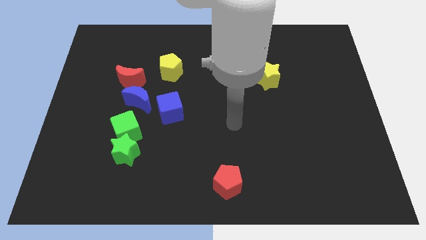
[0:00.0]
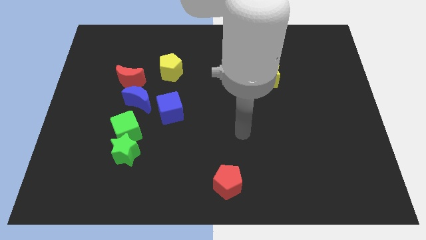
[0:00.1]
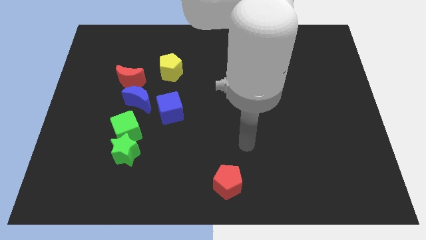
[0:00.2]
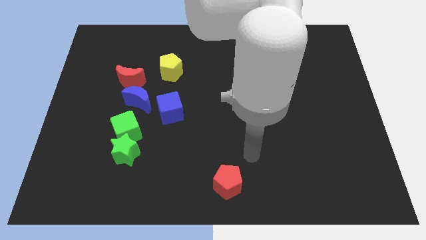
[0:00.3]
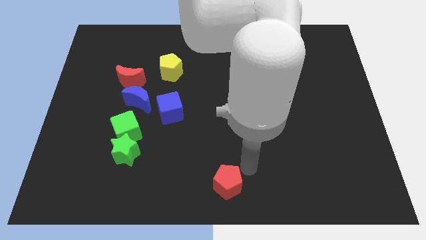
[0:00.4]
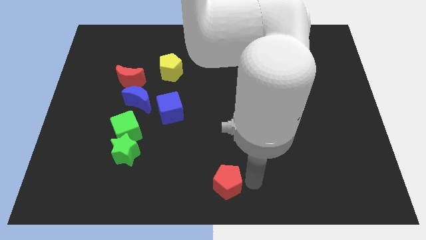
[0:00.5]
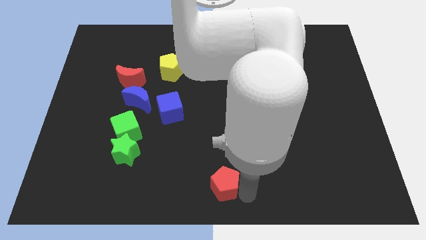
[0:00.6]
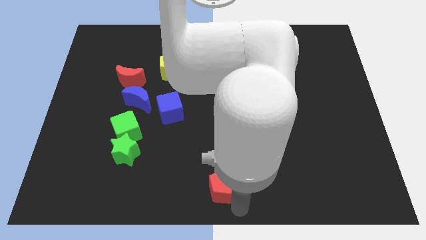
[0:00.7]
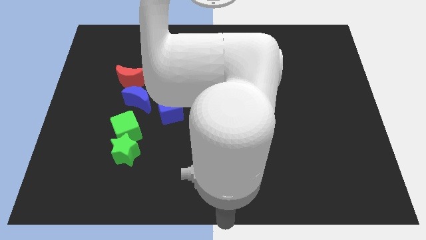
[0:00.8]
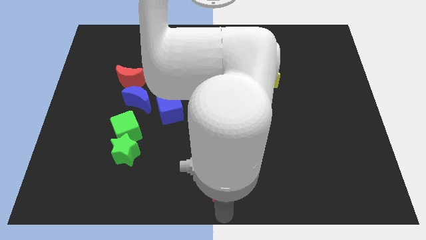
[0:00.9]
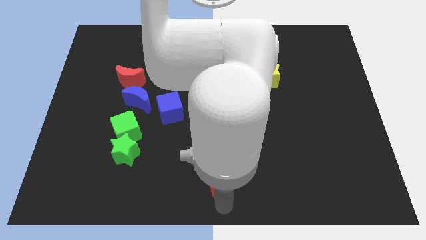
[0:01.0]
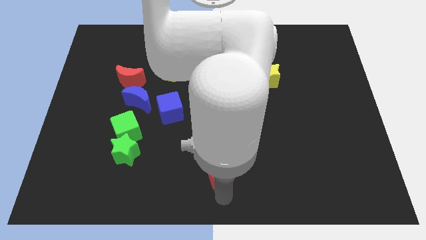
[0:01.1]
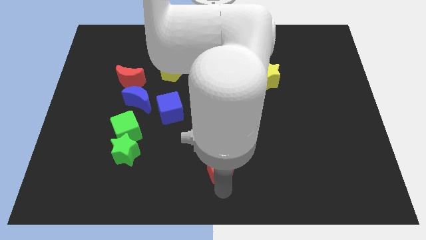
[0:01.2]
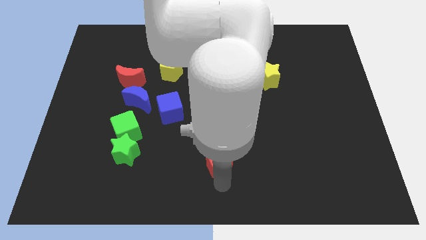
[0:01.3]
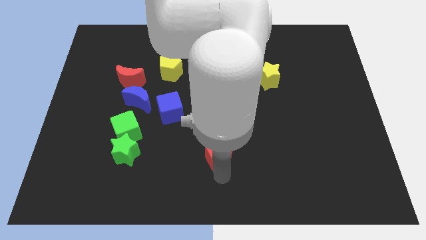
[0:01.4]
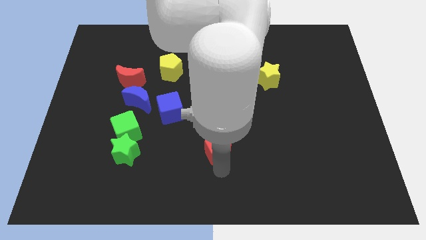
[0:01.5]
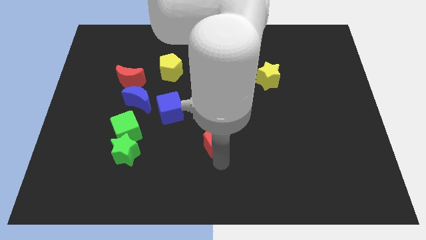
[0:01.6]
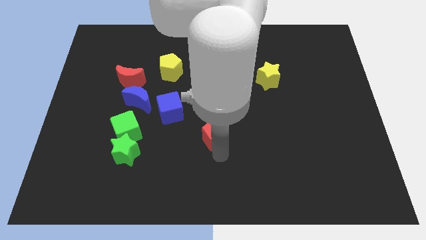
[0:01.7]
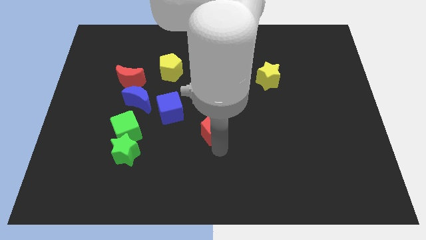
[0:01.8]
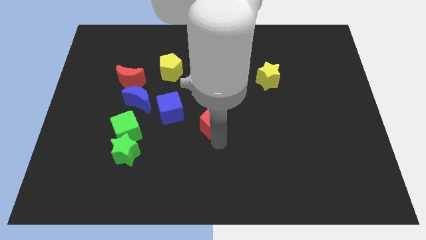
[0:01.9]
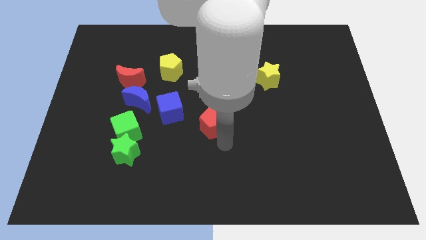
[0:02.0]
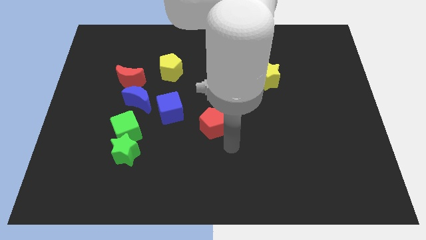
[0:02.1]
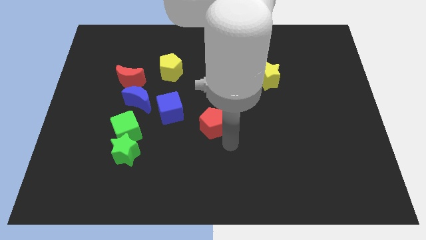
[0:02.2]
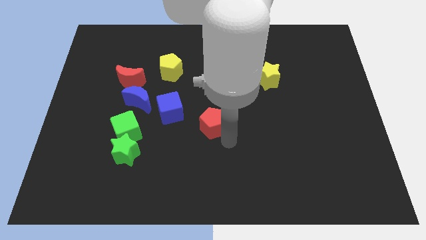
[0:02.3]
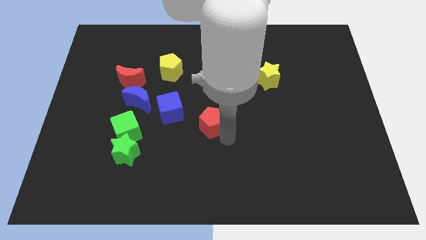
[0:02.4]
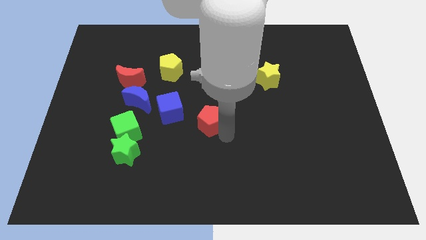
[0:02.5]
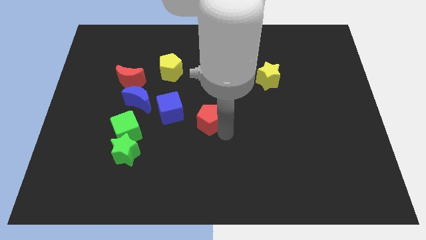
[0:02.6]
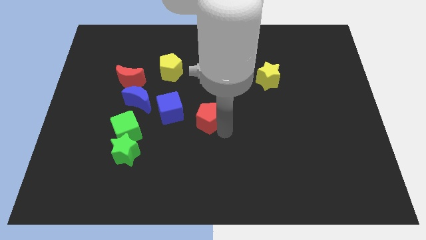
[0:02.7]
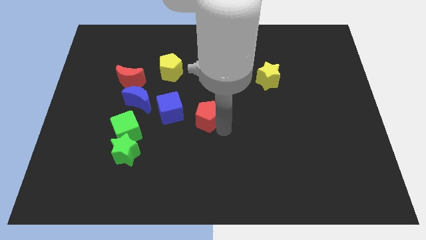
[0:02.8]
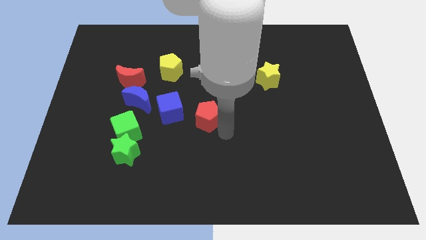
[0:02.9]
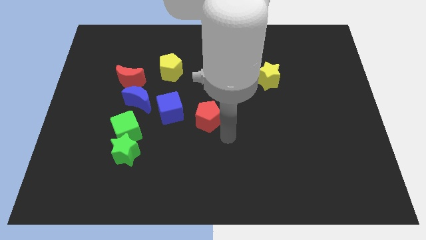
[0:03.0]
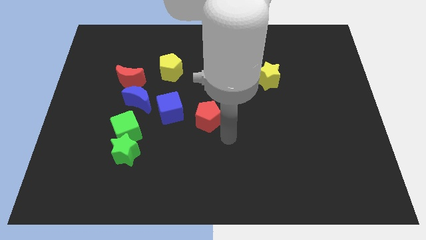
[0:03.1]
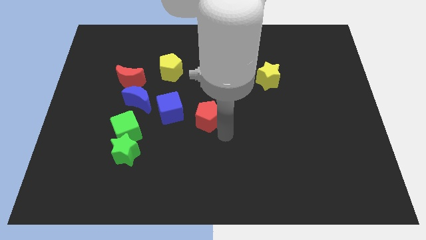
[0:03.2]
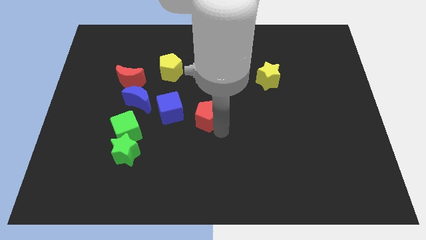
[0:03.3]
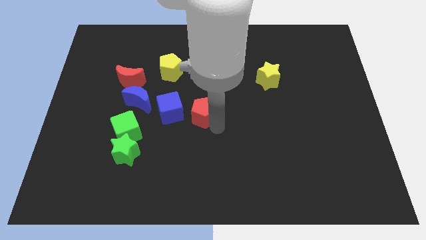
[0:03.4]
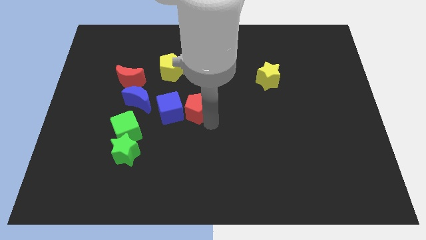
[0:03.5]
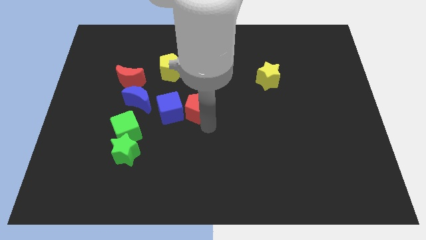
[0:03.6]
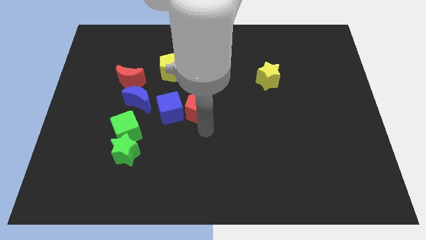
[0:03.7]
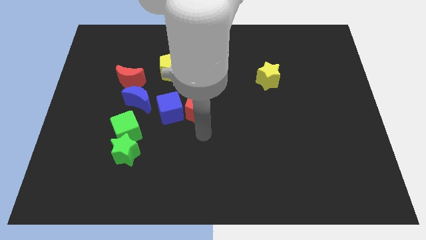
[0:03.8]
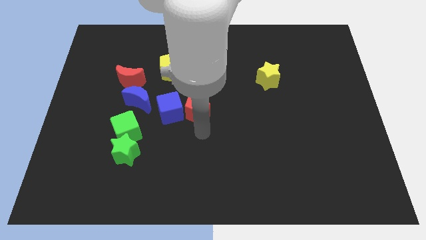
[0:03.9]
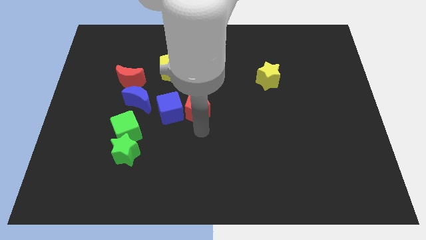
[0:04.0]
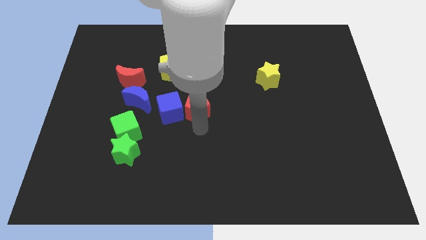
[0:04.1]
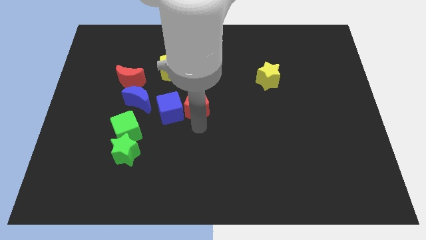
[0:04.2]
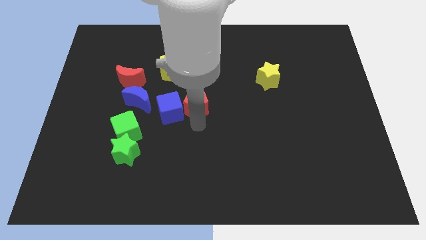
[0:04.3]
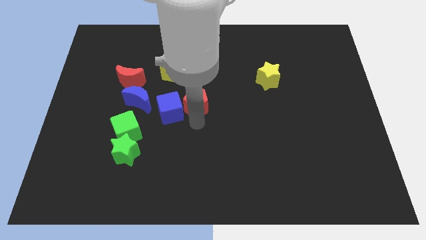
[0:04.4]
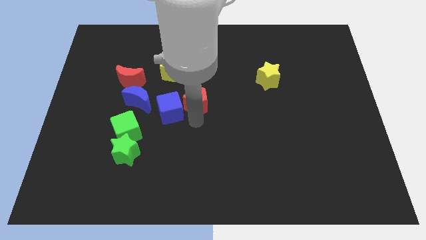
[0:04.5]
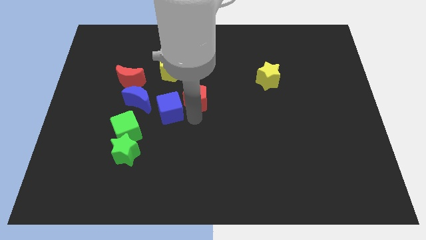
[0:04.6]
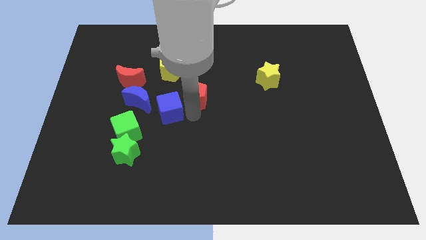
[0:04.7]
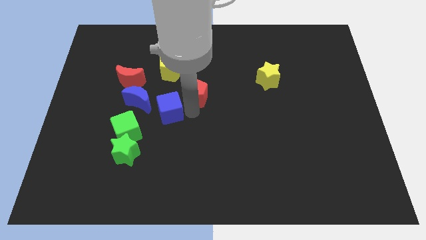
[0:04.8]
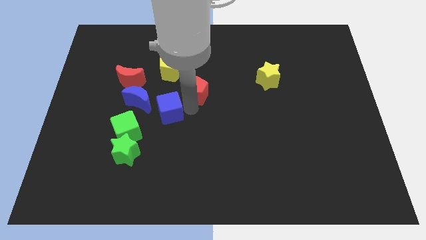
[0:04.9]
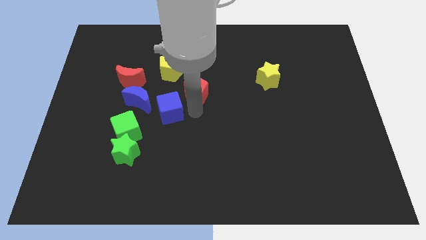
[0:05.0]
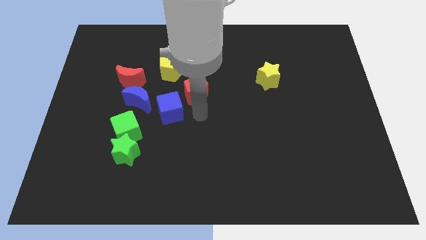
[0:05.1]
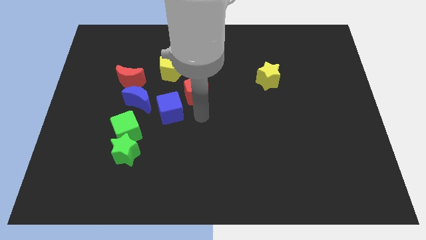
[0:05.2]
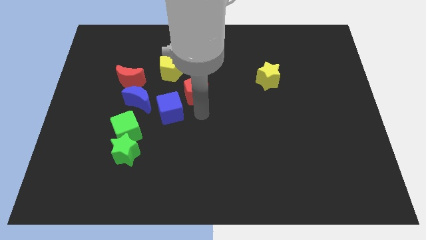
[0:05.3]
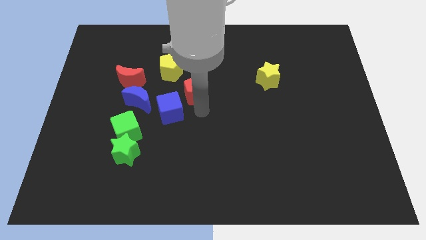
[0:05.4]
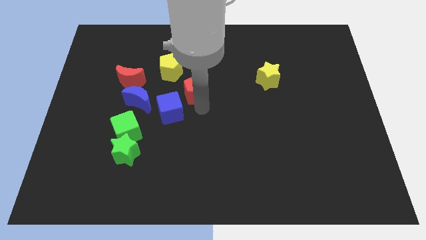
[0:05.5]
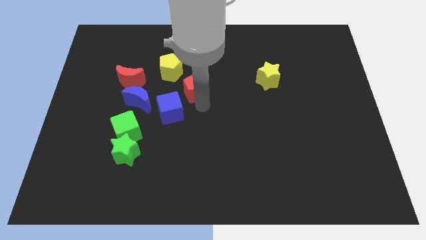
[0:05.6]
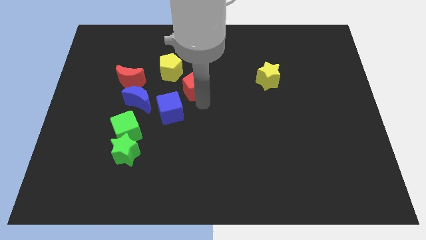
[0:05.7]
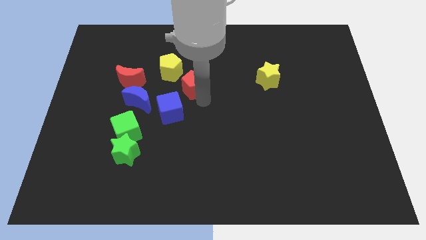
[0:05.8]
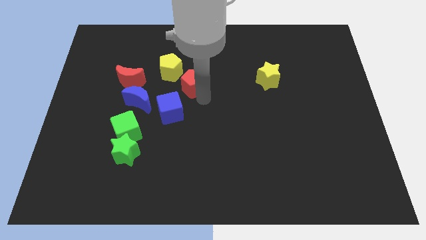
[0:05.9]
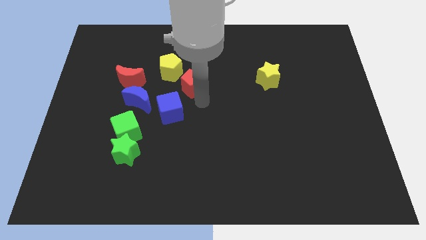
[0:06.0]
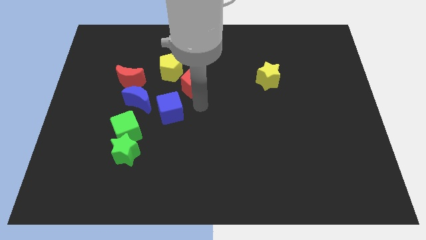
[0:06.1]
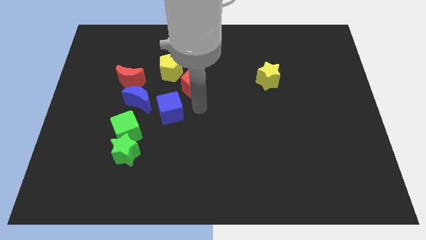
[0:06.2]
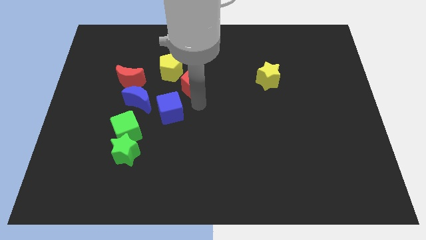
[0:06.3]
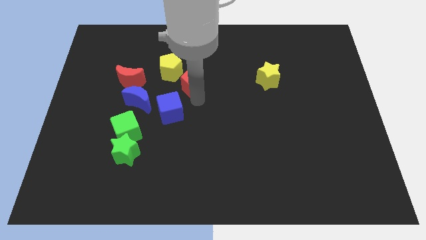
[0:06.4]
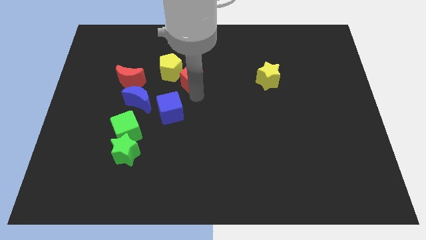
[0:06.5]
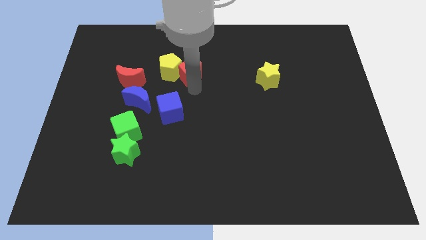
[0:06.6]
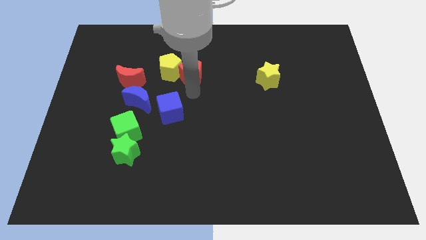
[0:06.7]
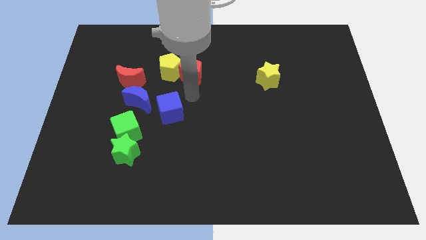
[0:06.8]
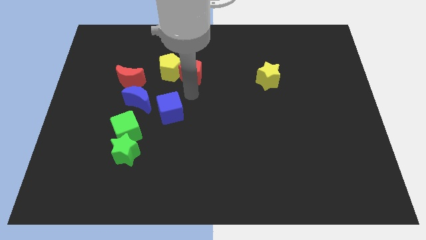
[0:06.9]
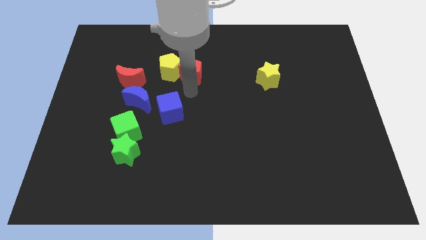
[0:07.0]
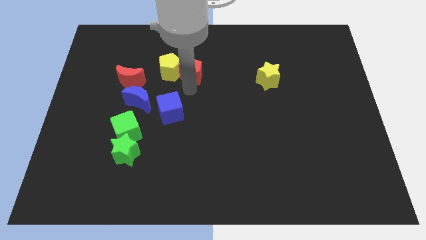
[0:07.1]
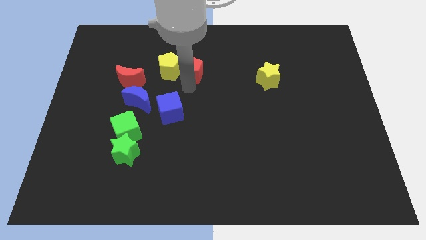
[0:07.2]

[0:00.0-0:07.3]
push the red pentagon to the top right of the yellow pentagon

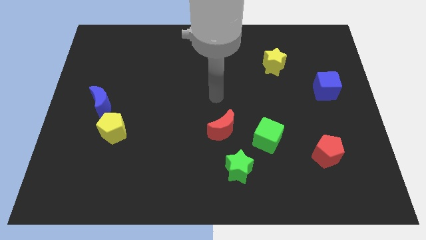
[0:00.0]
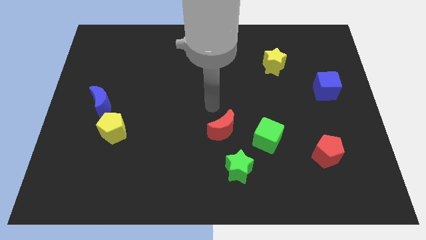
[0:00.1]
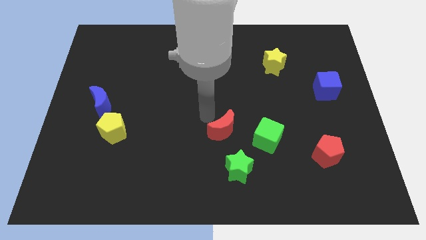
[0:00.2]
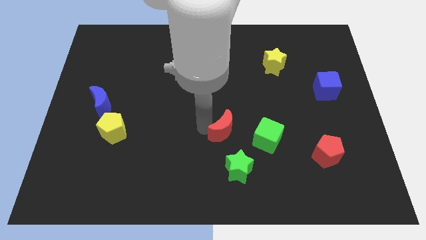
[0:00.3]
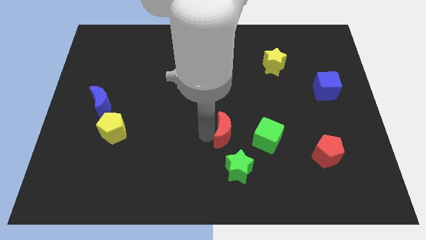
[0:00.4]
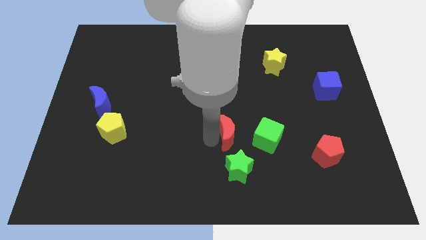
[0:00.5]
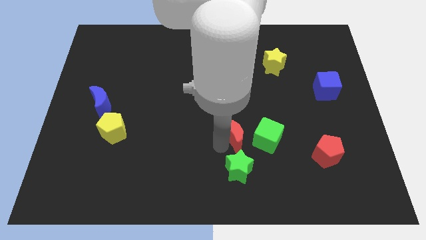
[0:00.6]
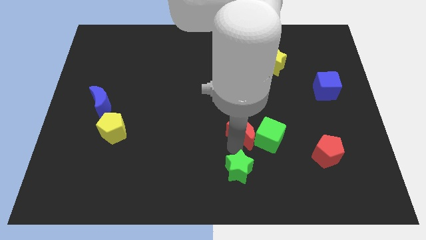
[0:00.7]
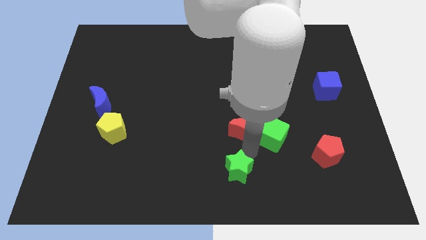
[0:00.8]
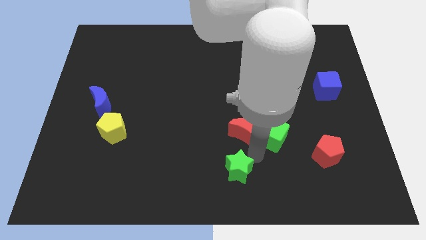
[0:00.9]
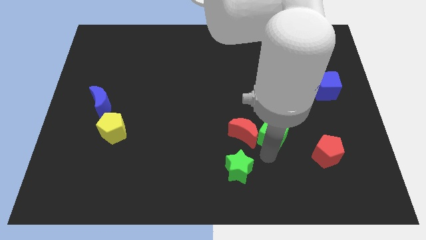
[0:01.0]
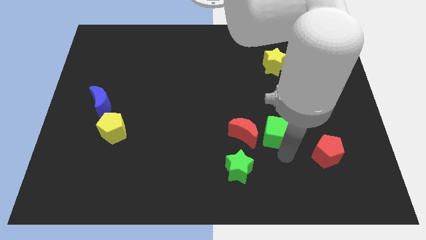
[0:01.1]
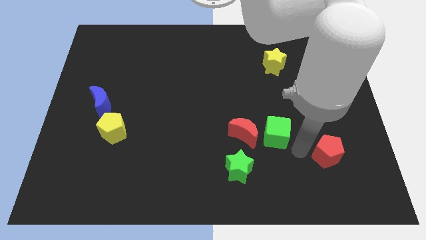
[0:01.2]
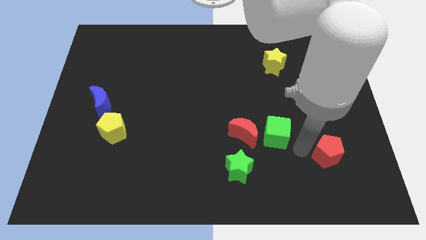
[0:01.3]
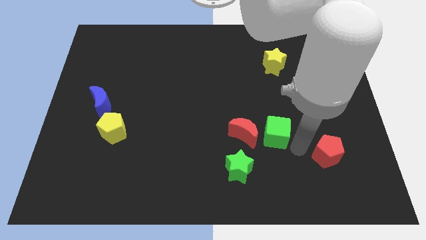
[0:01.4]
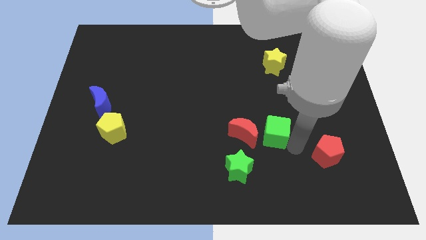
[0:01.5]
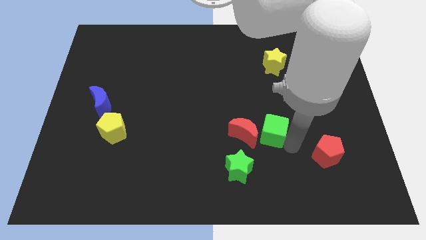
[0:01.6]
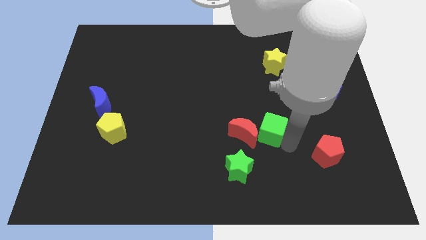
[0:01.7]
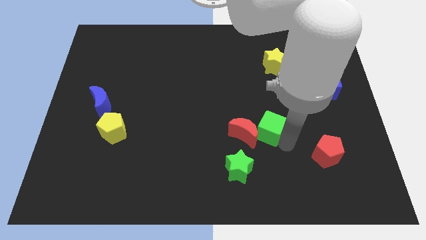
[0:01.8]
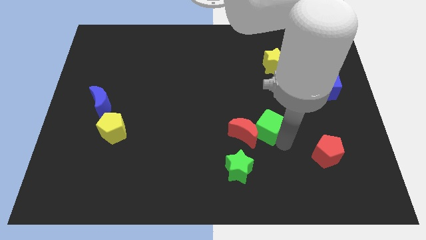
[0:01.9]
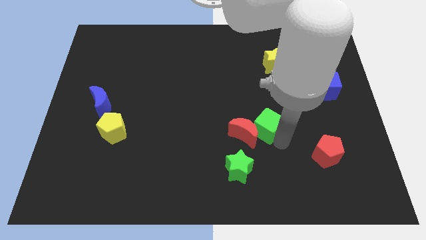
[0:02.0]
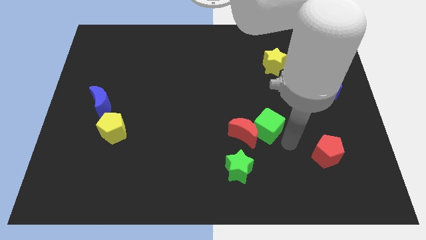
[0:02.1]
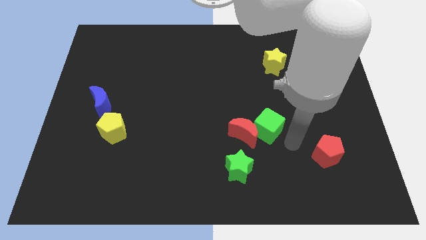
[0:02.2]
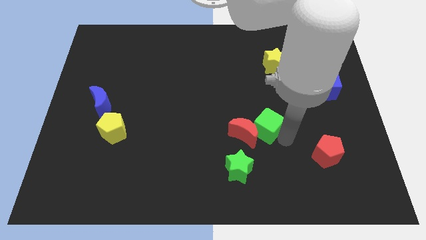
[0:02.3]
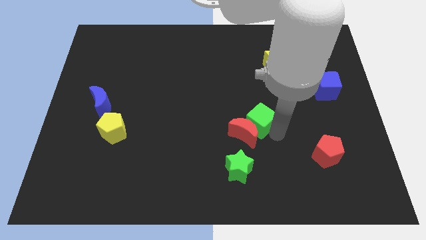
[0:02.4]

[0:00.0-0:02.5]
push the green cube above the red moon
